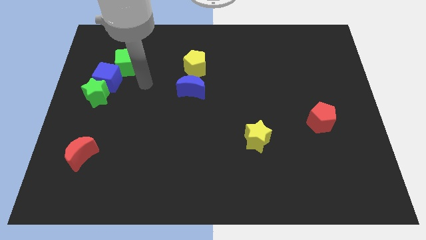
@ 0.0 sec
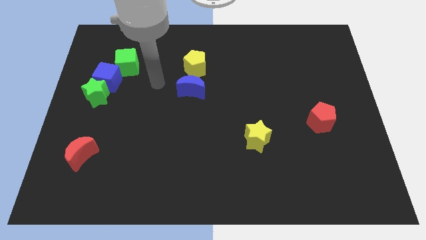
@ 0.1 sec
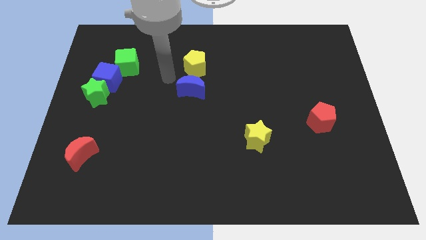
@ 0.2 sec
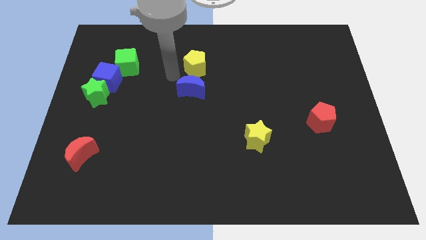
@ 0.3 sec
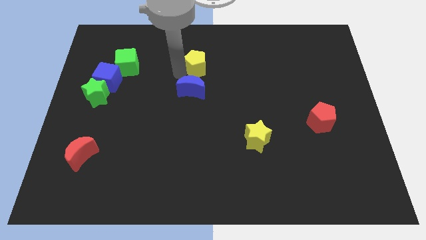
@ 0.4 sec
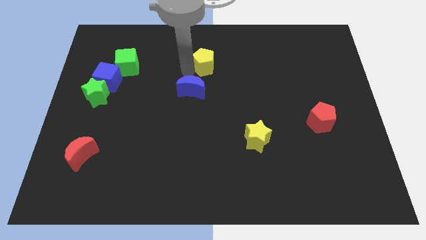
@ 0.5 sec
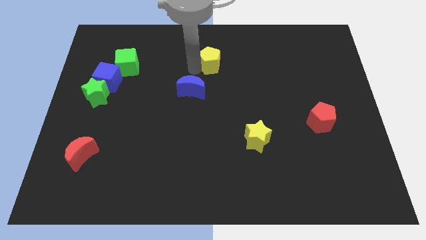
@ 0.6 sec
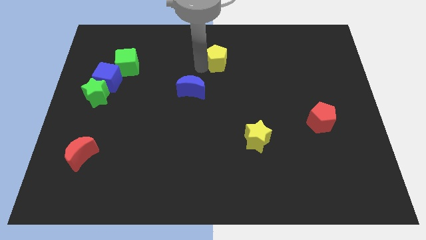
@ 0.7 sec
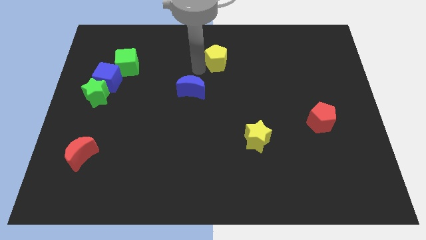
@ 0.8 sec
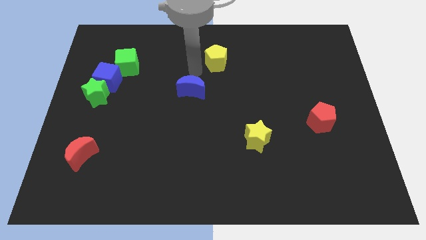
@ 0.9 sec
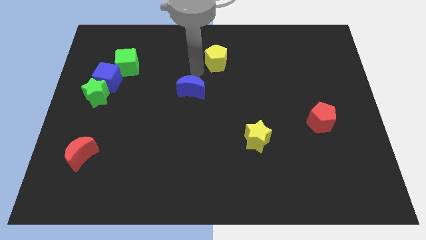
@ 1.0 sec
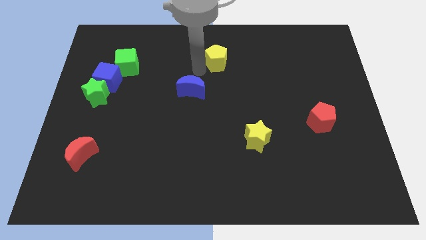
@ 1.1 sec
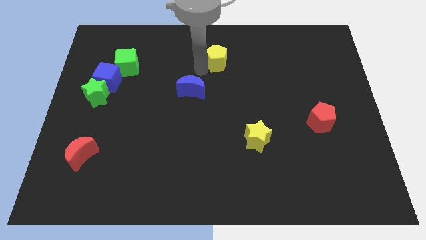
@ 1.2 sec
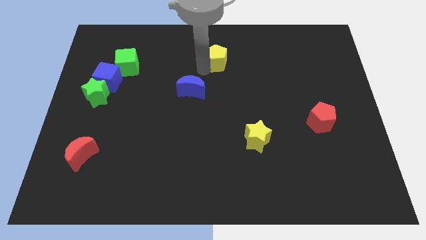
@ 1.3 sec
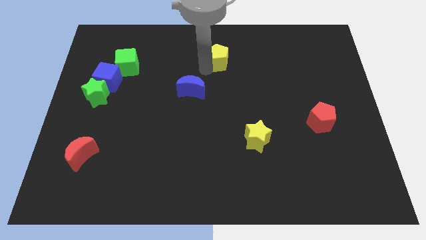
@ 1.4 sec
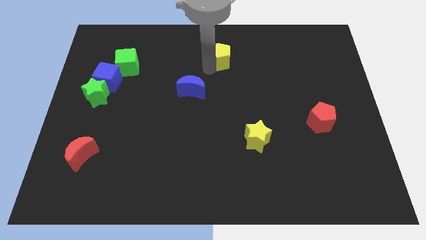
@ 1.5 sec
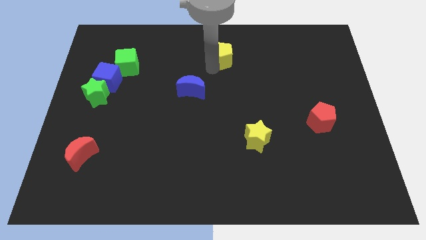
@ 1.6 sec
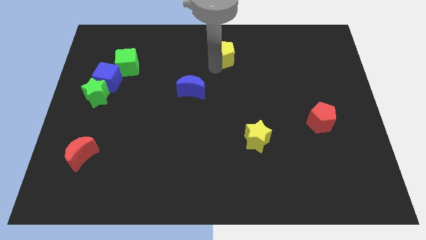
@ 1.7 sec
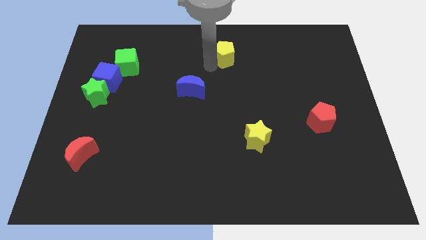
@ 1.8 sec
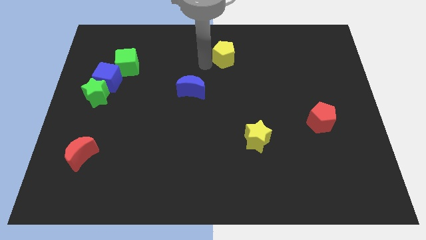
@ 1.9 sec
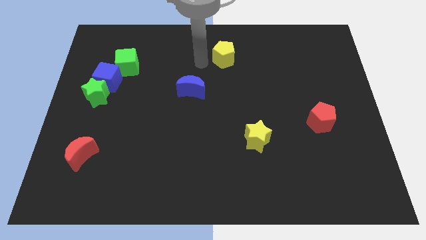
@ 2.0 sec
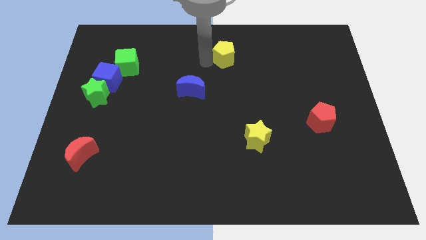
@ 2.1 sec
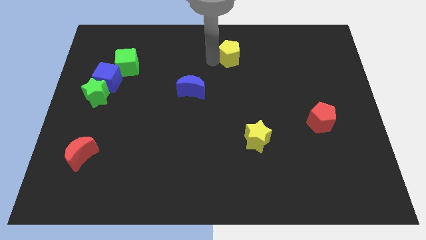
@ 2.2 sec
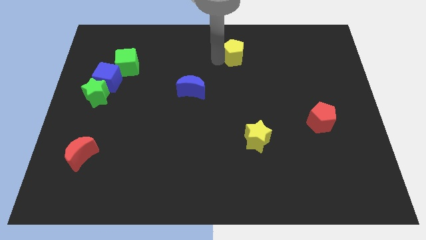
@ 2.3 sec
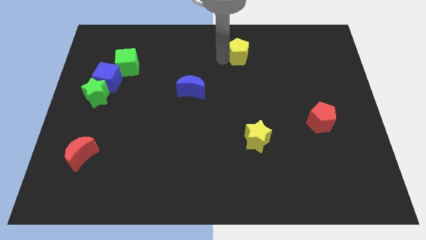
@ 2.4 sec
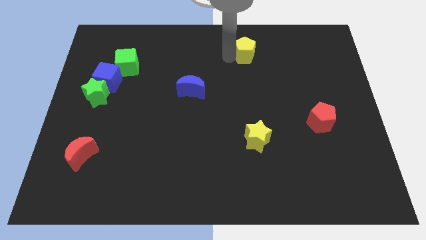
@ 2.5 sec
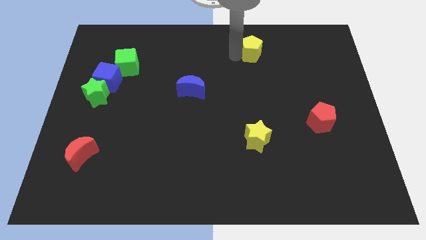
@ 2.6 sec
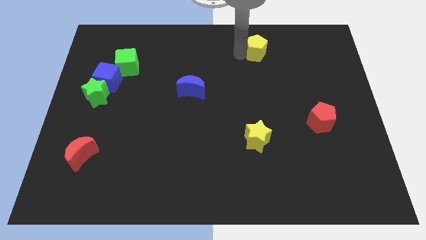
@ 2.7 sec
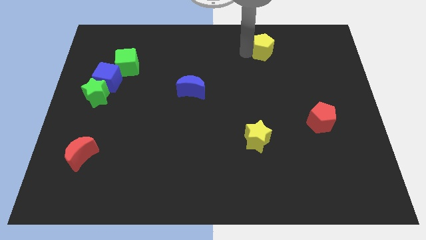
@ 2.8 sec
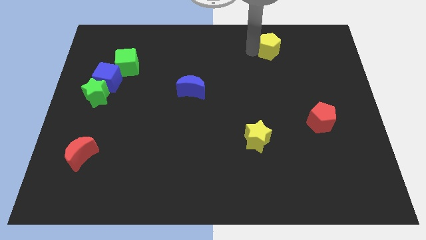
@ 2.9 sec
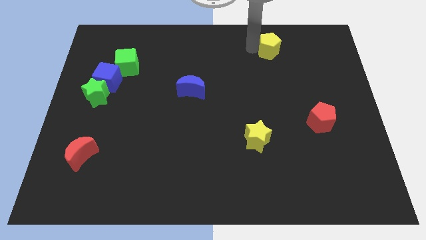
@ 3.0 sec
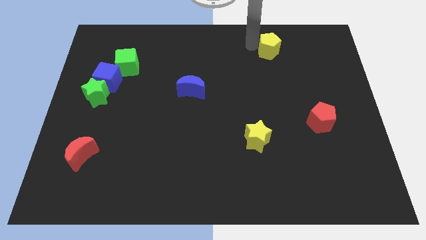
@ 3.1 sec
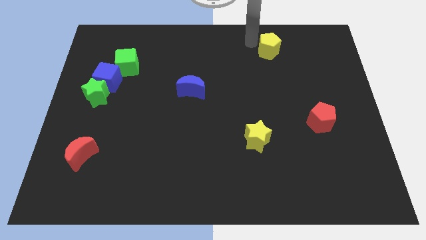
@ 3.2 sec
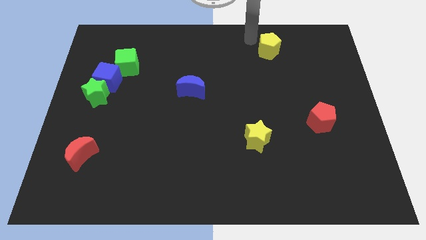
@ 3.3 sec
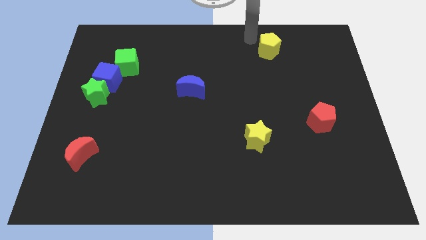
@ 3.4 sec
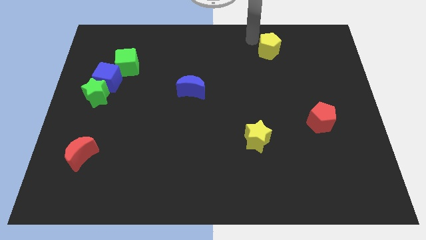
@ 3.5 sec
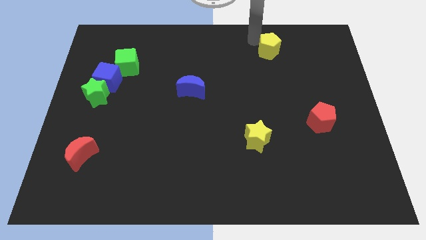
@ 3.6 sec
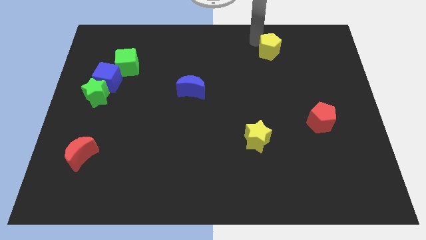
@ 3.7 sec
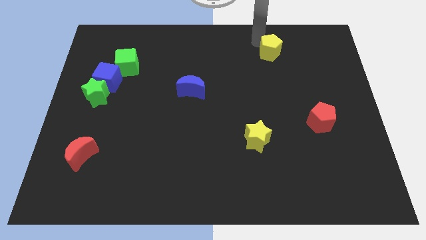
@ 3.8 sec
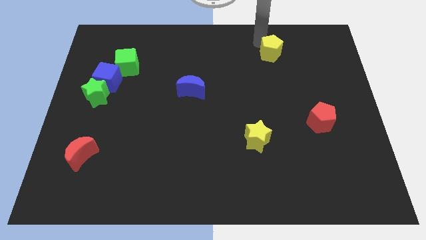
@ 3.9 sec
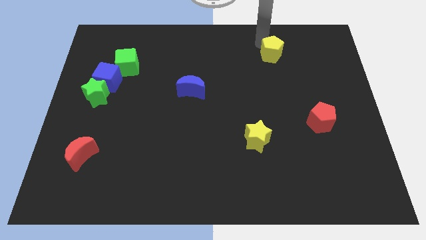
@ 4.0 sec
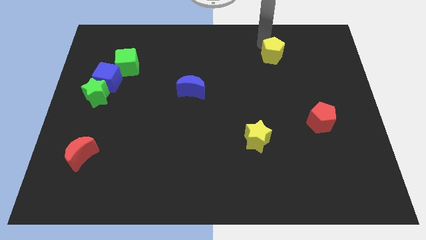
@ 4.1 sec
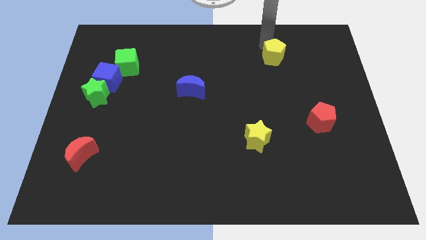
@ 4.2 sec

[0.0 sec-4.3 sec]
slide the yellow pentagon to the right

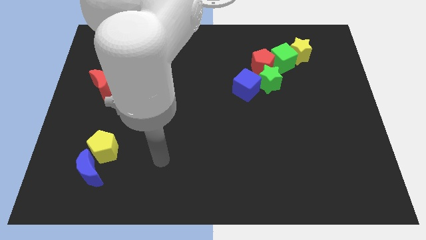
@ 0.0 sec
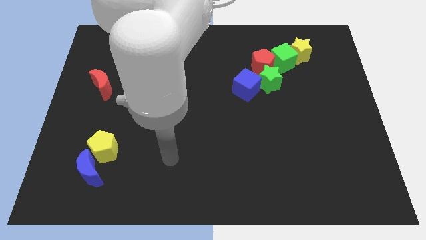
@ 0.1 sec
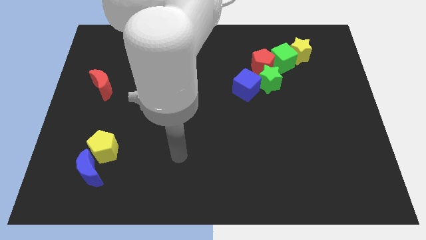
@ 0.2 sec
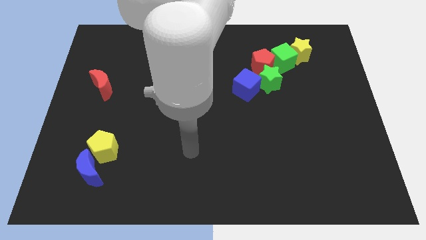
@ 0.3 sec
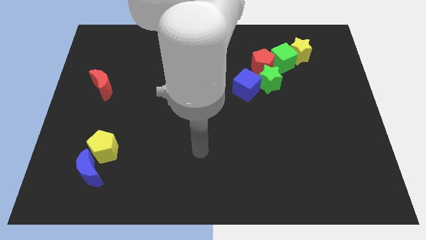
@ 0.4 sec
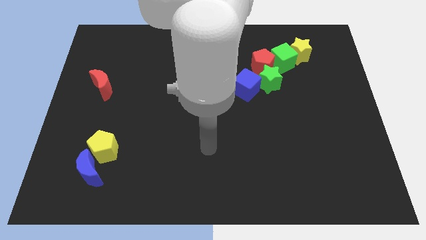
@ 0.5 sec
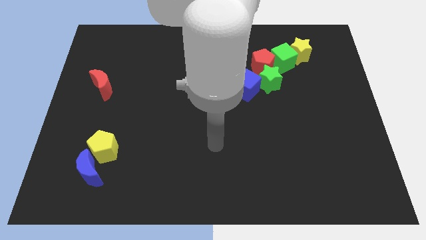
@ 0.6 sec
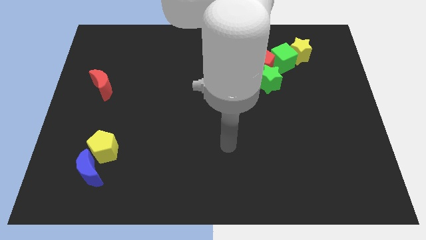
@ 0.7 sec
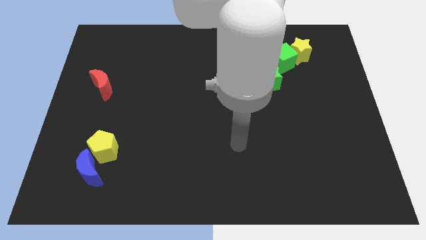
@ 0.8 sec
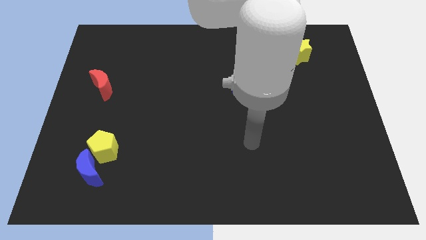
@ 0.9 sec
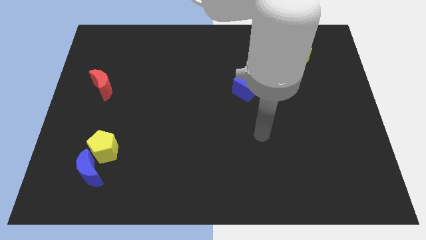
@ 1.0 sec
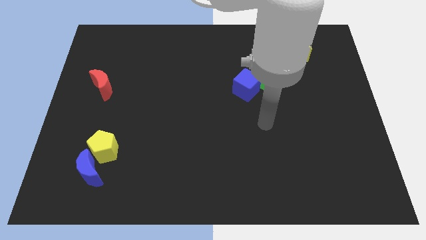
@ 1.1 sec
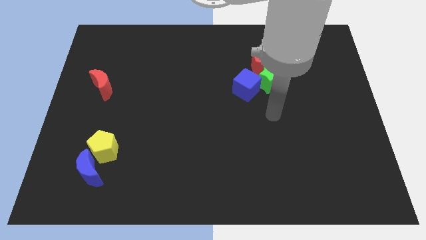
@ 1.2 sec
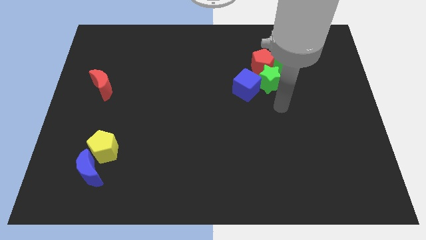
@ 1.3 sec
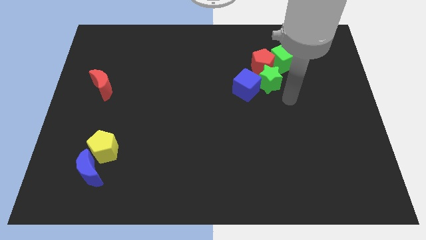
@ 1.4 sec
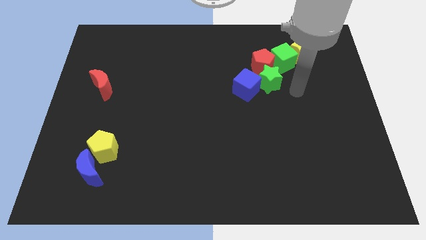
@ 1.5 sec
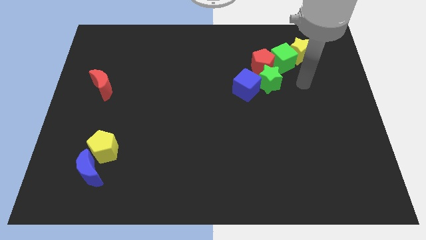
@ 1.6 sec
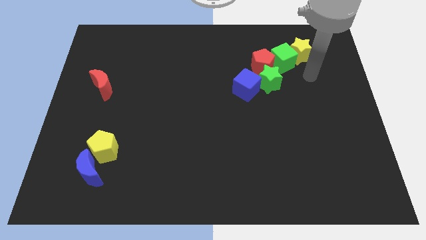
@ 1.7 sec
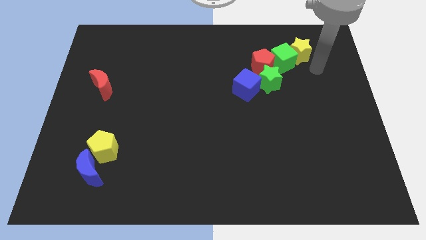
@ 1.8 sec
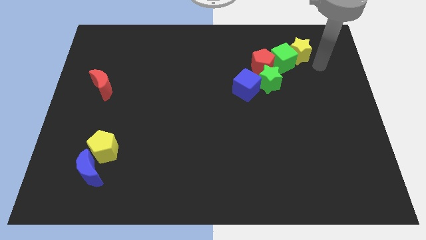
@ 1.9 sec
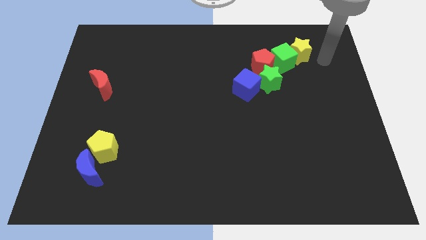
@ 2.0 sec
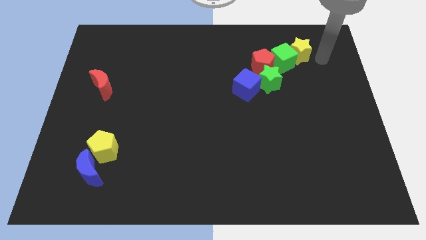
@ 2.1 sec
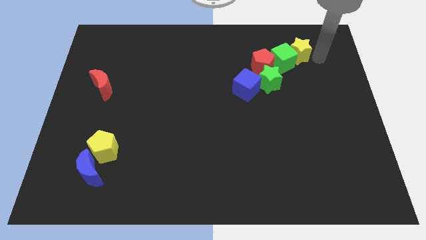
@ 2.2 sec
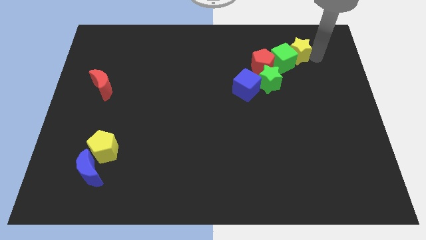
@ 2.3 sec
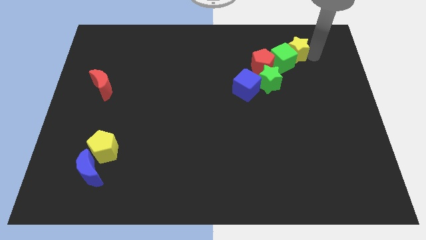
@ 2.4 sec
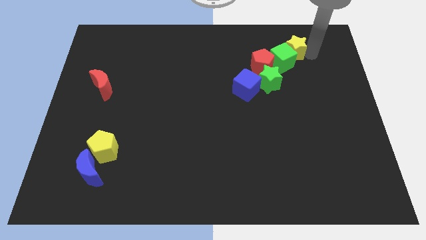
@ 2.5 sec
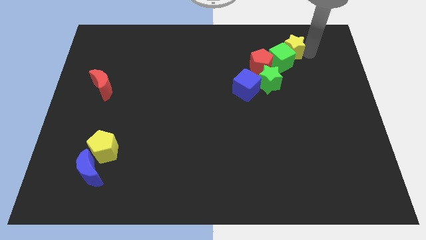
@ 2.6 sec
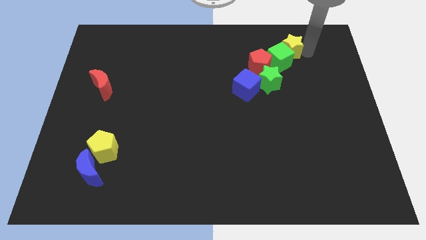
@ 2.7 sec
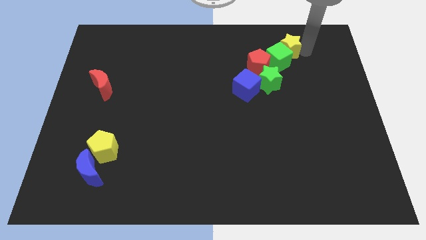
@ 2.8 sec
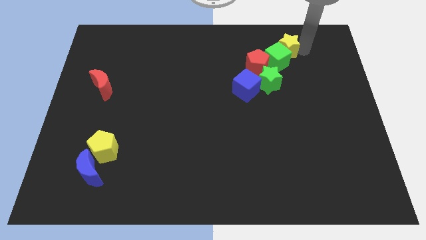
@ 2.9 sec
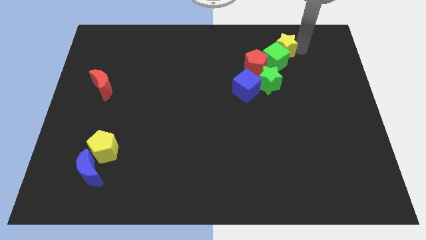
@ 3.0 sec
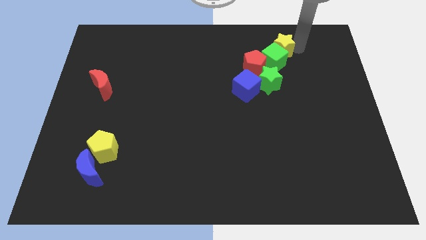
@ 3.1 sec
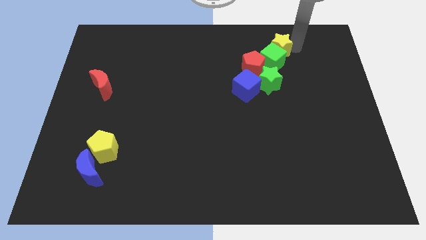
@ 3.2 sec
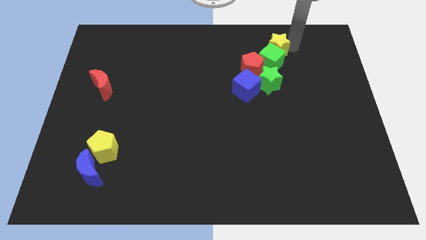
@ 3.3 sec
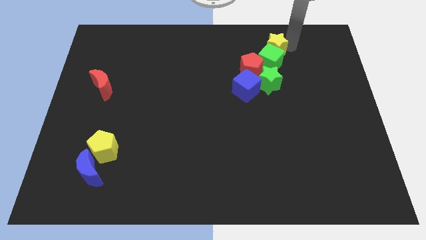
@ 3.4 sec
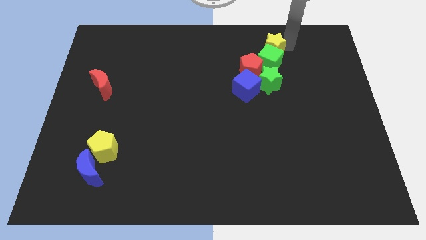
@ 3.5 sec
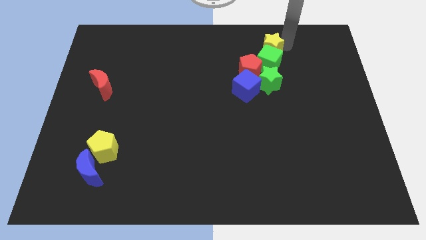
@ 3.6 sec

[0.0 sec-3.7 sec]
slightly move the yellow star left

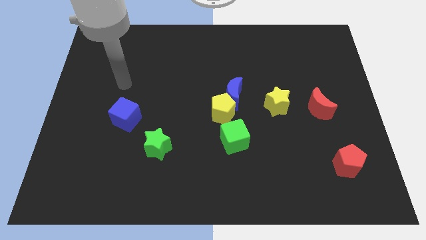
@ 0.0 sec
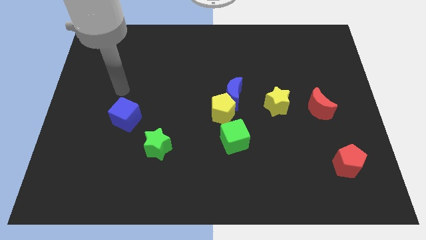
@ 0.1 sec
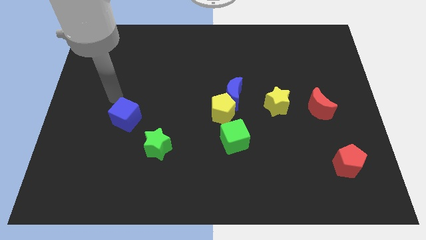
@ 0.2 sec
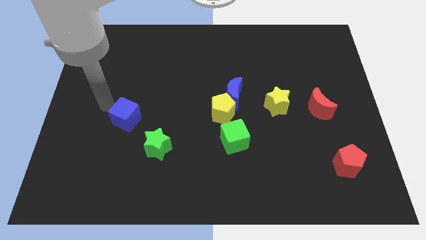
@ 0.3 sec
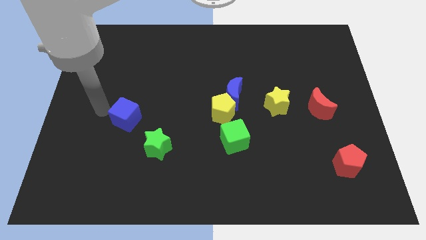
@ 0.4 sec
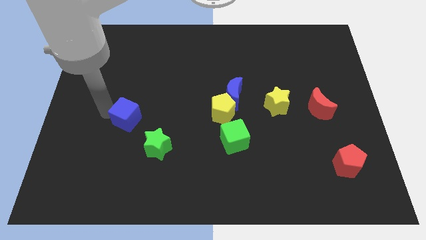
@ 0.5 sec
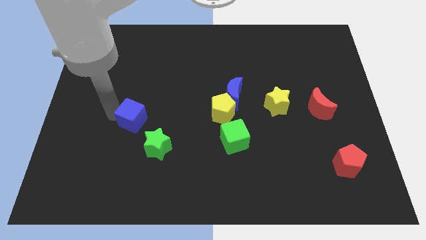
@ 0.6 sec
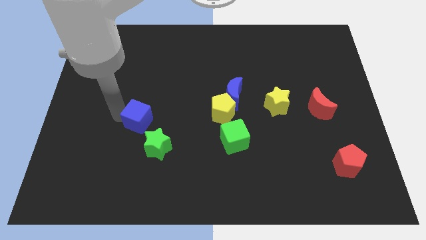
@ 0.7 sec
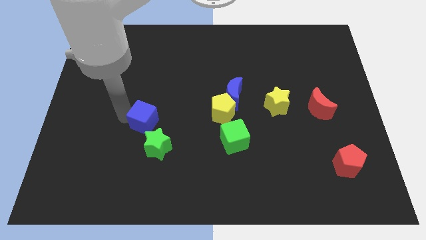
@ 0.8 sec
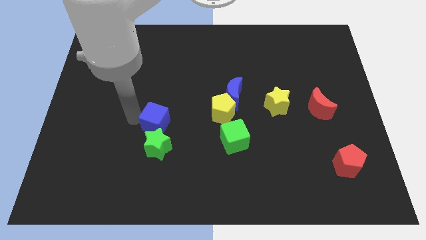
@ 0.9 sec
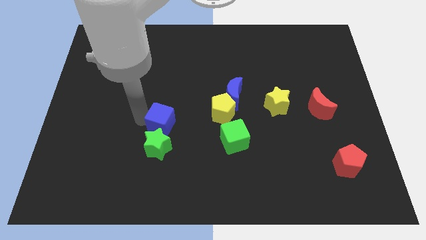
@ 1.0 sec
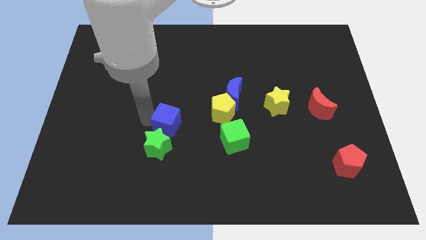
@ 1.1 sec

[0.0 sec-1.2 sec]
push the blue cube slightly downwards and then to the right
